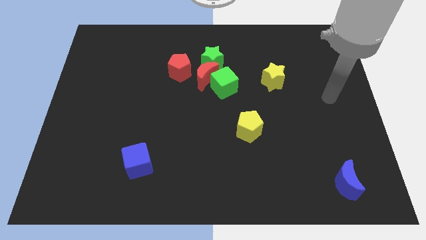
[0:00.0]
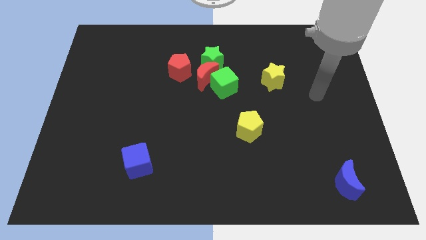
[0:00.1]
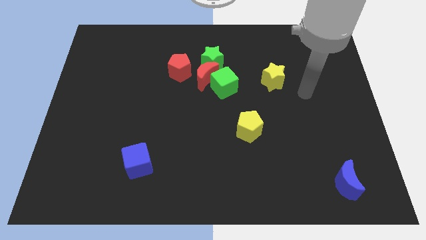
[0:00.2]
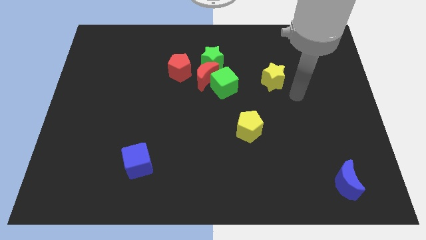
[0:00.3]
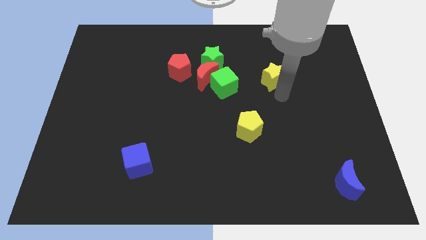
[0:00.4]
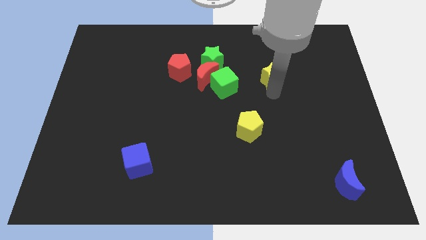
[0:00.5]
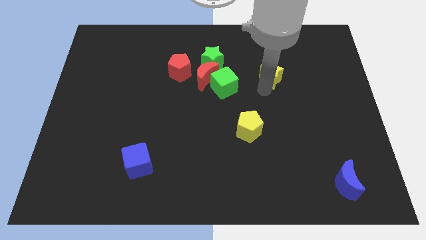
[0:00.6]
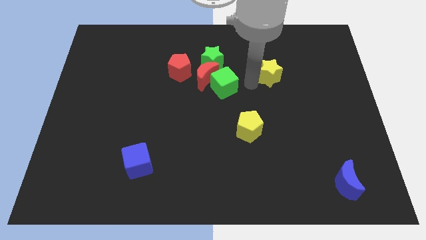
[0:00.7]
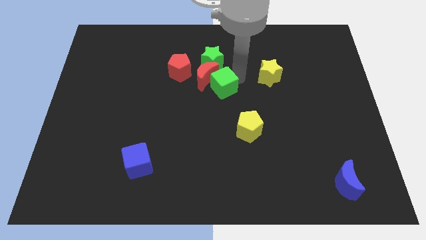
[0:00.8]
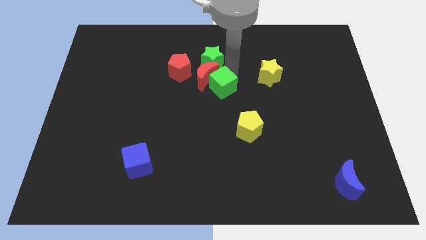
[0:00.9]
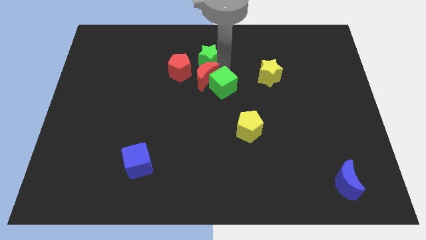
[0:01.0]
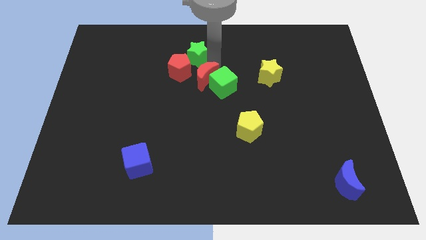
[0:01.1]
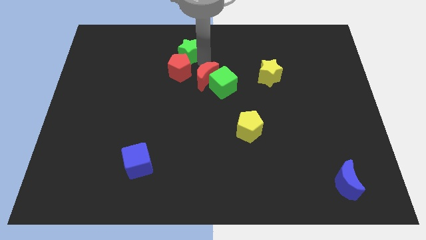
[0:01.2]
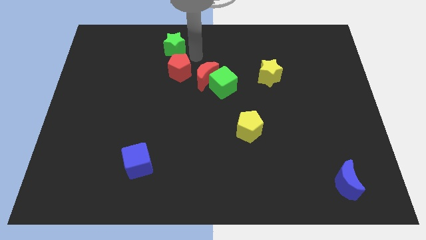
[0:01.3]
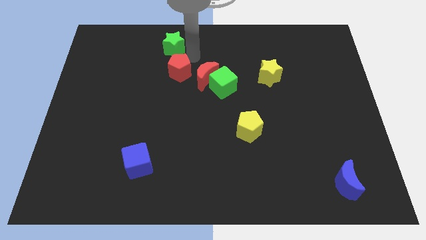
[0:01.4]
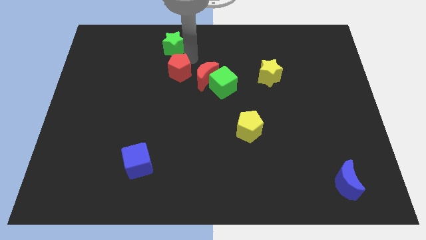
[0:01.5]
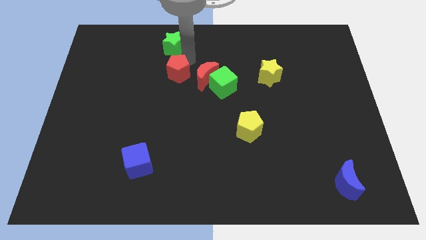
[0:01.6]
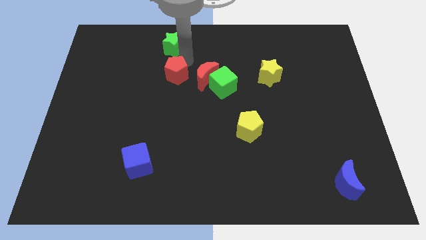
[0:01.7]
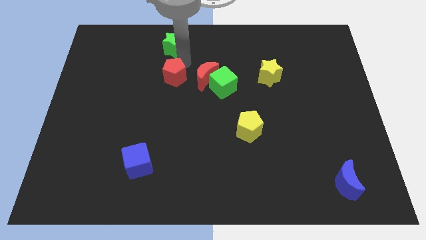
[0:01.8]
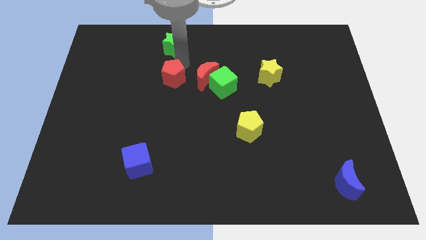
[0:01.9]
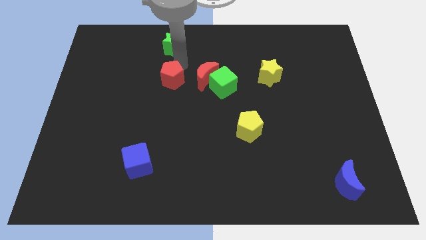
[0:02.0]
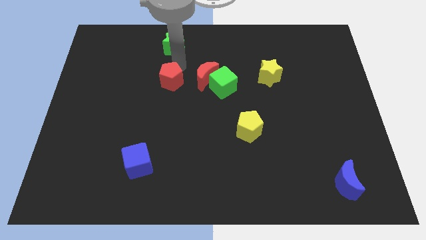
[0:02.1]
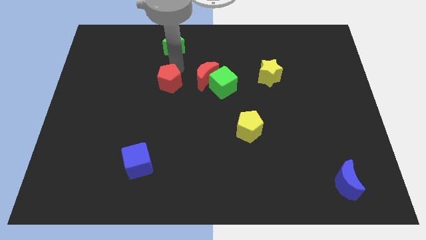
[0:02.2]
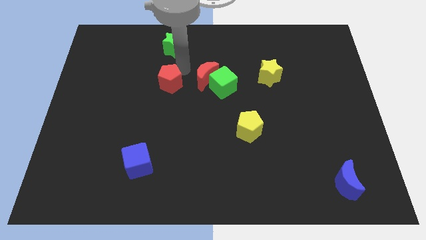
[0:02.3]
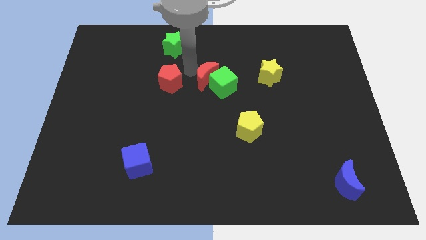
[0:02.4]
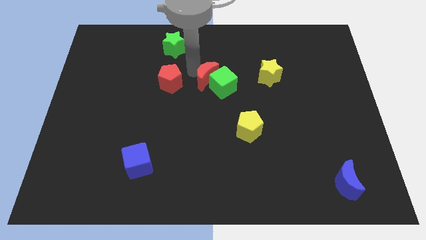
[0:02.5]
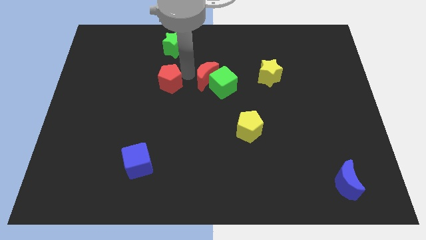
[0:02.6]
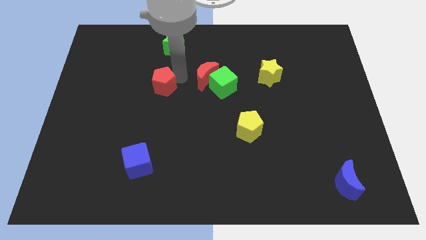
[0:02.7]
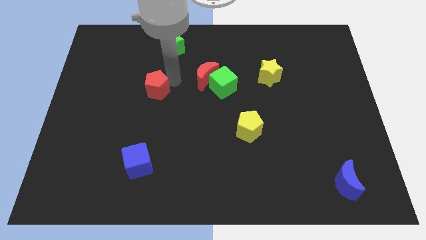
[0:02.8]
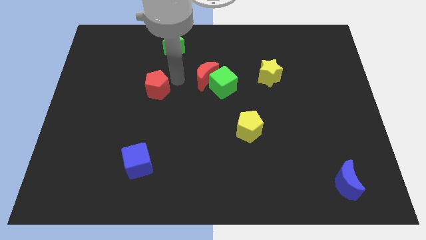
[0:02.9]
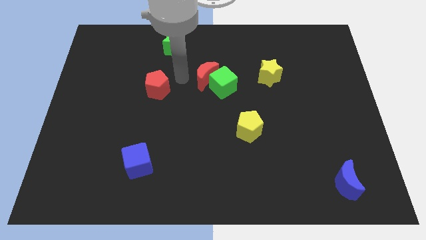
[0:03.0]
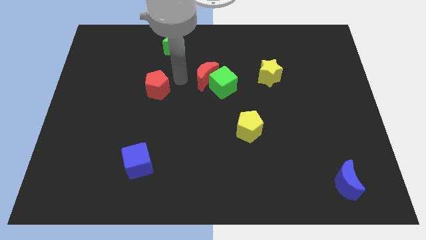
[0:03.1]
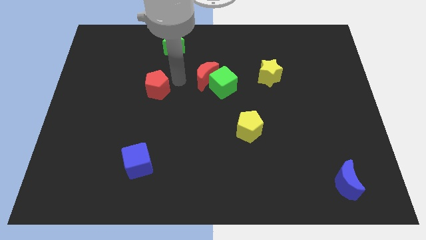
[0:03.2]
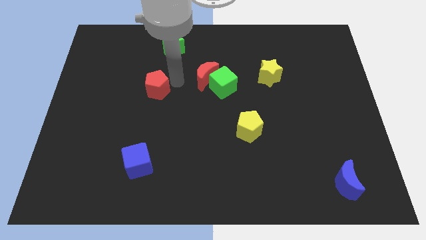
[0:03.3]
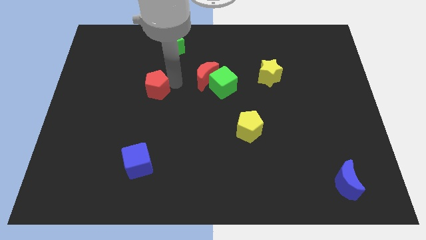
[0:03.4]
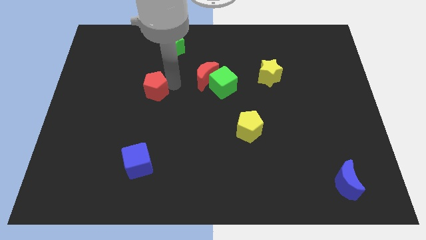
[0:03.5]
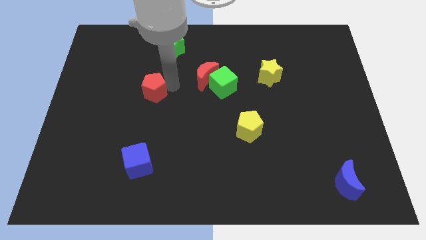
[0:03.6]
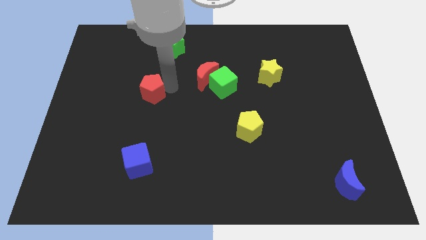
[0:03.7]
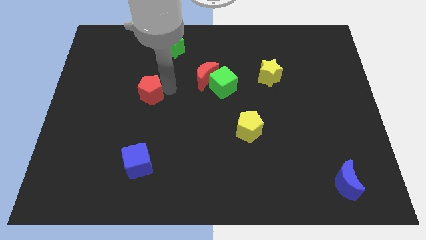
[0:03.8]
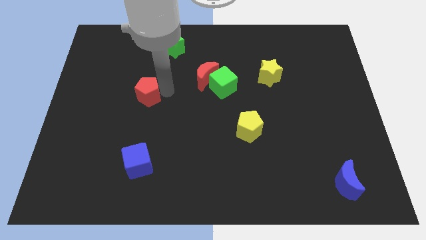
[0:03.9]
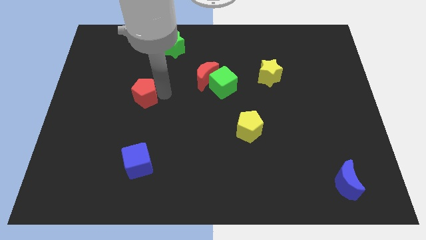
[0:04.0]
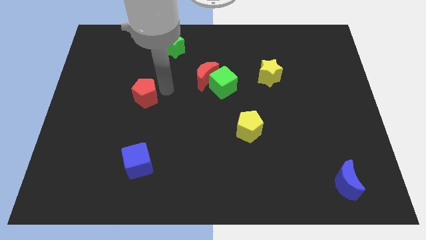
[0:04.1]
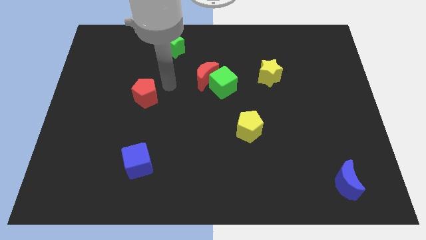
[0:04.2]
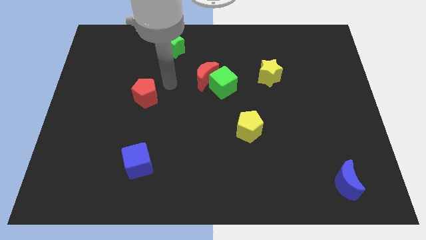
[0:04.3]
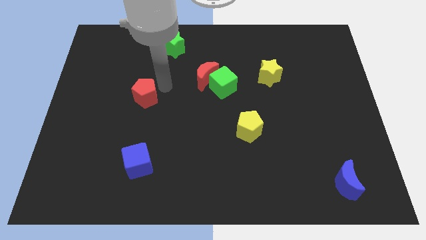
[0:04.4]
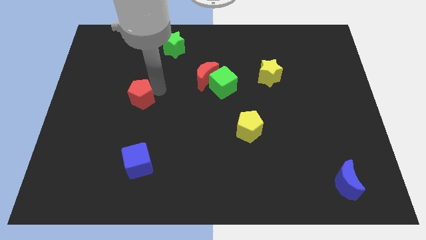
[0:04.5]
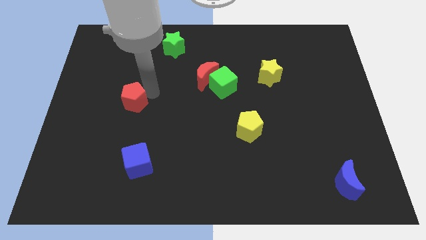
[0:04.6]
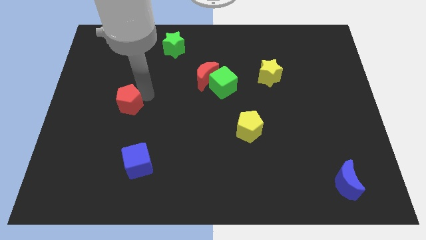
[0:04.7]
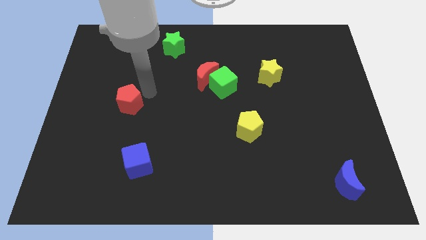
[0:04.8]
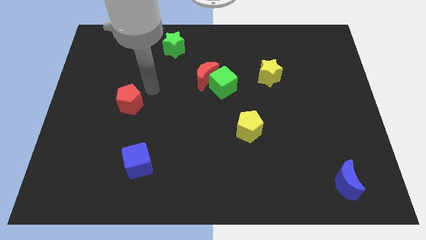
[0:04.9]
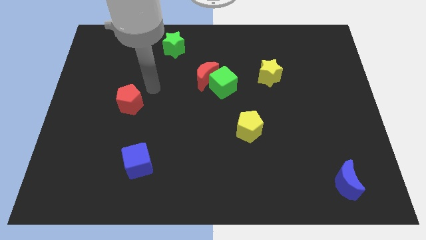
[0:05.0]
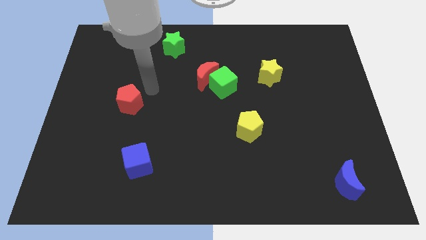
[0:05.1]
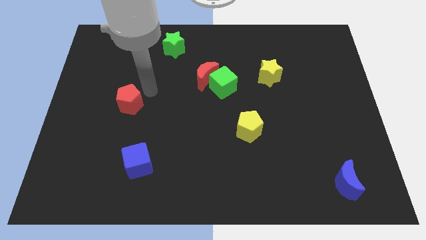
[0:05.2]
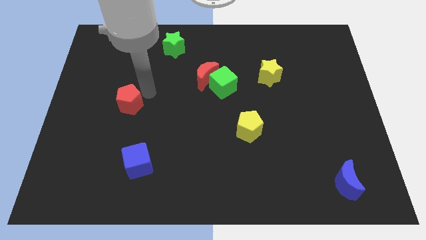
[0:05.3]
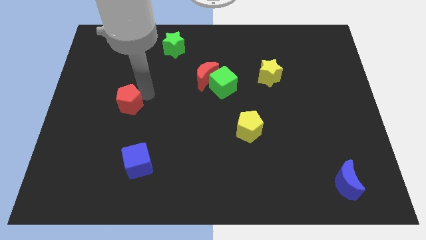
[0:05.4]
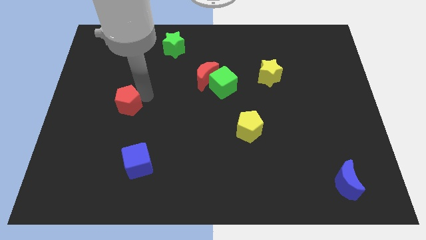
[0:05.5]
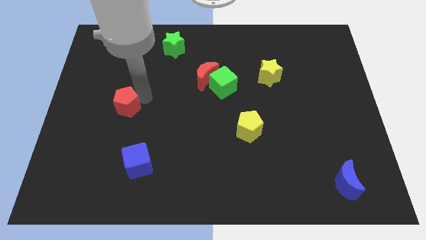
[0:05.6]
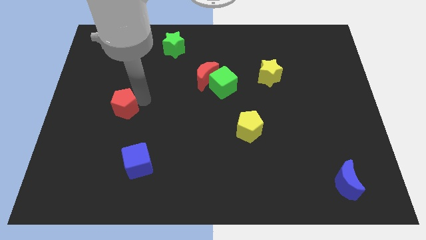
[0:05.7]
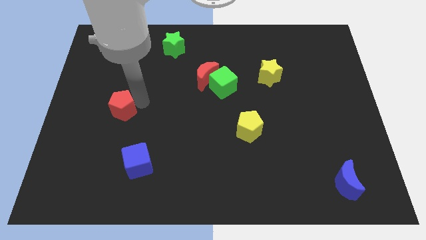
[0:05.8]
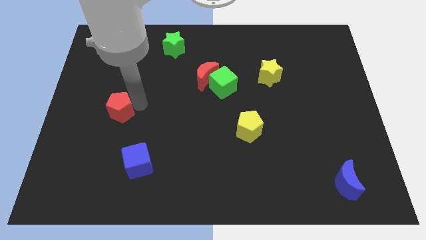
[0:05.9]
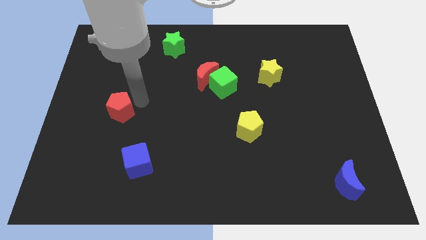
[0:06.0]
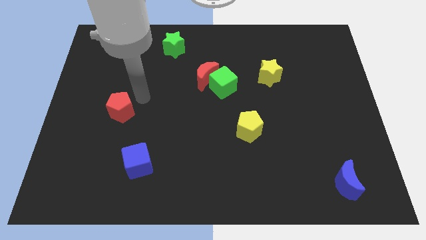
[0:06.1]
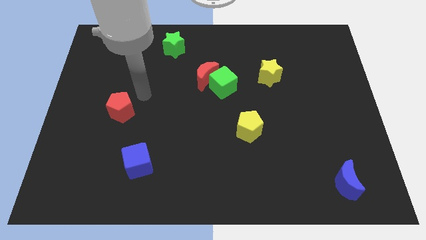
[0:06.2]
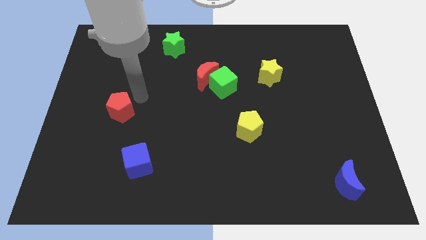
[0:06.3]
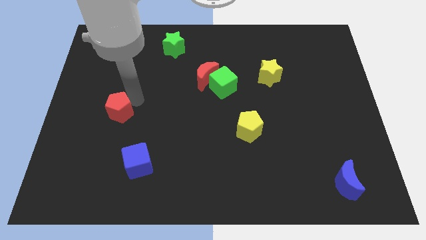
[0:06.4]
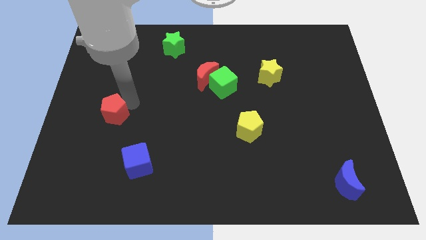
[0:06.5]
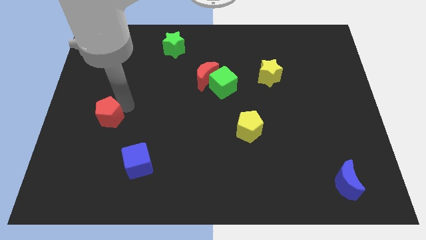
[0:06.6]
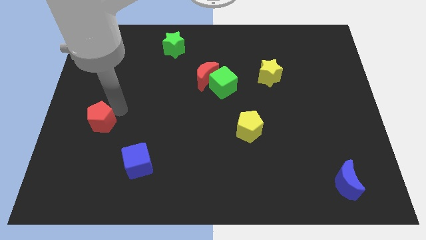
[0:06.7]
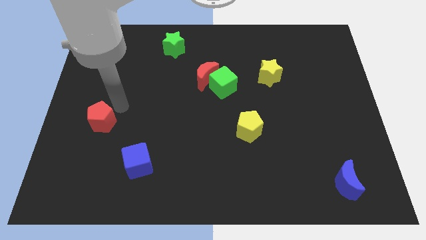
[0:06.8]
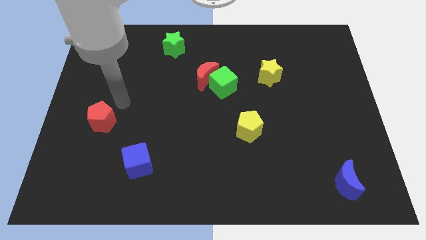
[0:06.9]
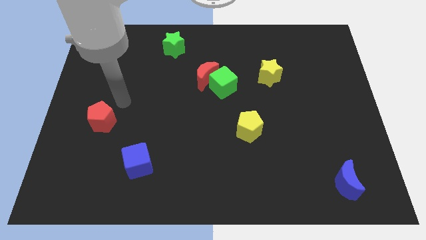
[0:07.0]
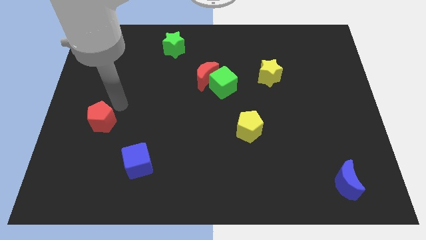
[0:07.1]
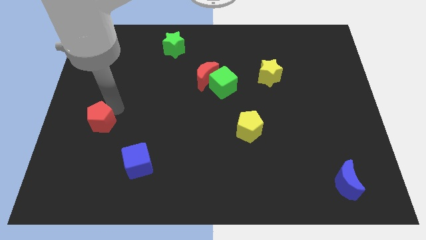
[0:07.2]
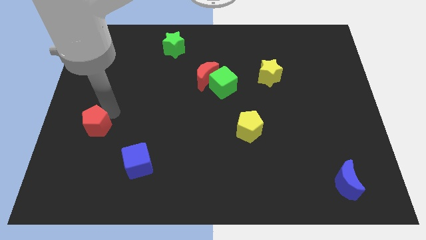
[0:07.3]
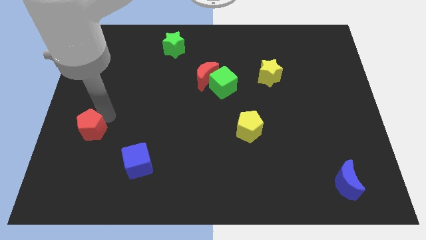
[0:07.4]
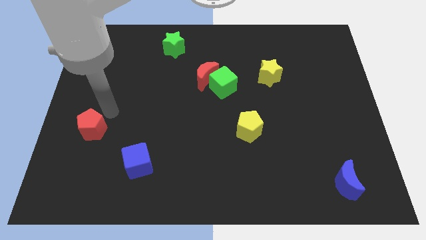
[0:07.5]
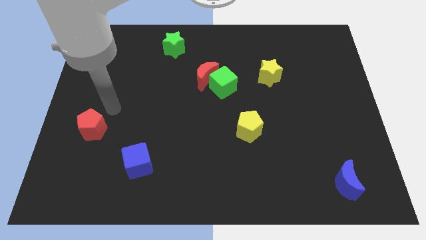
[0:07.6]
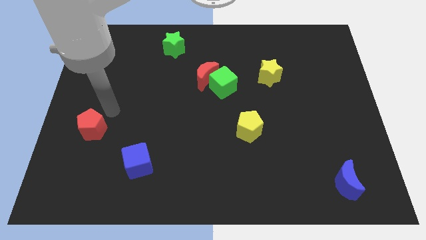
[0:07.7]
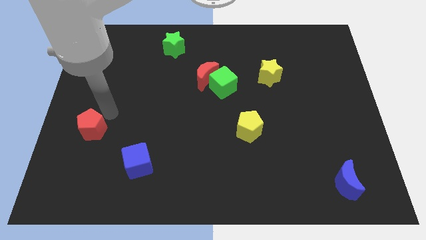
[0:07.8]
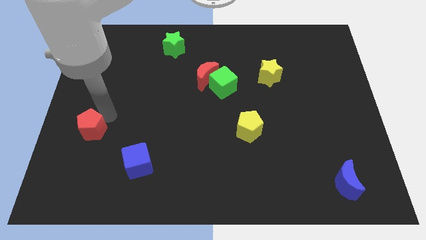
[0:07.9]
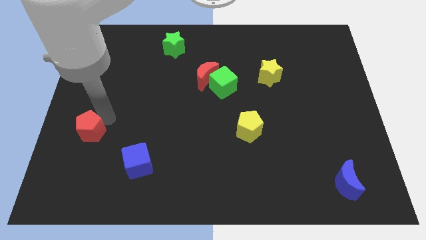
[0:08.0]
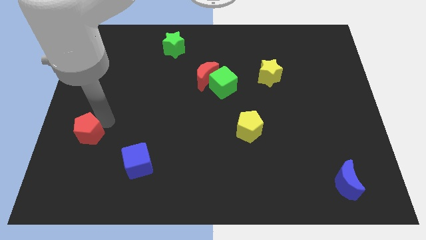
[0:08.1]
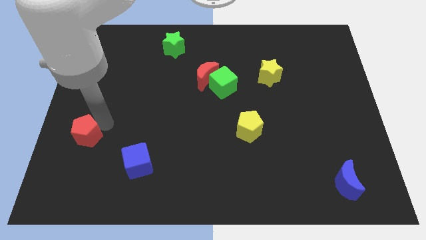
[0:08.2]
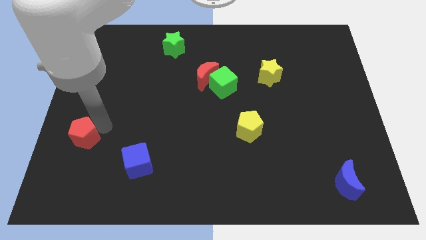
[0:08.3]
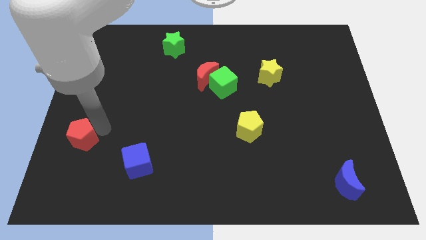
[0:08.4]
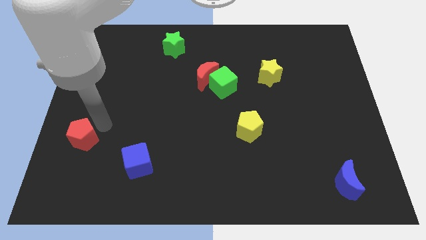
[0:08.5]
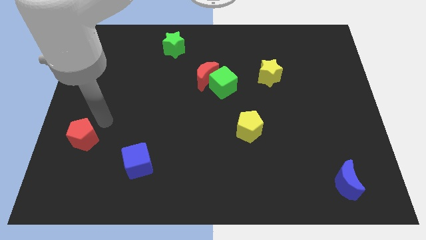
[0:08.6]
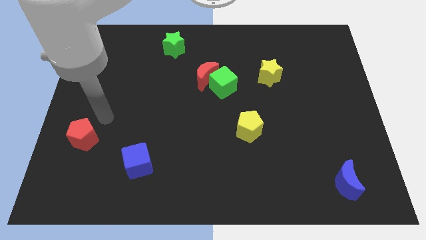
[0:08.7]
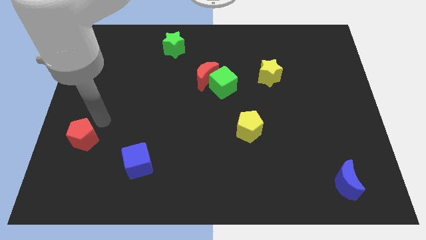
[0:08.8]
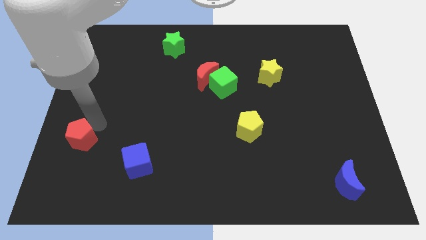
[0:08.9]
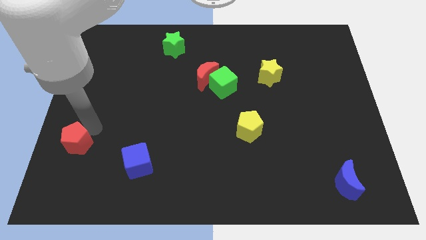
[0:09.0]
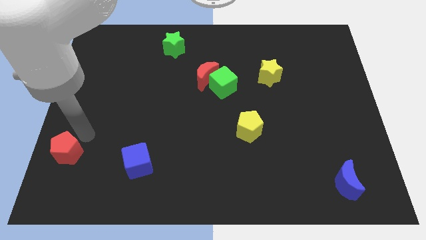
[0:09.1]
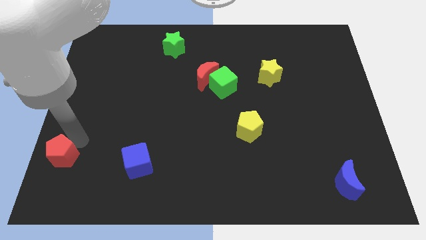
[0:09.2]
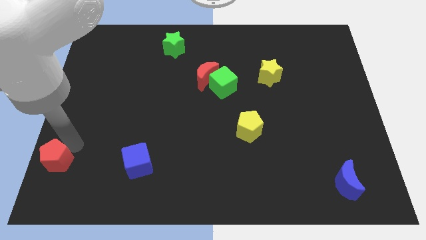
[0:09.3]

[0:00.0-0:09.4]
put the red pentagon to the bottom left of the board
